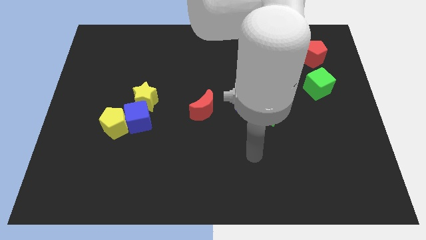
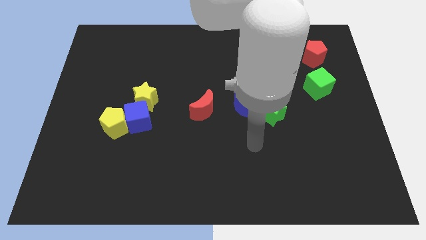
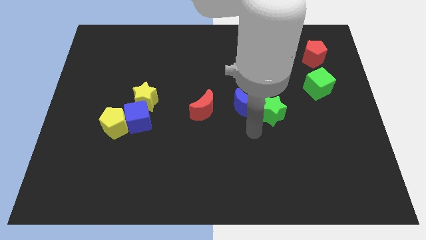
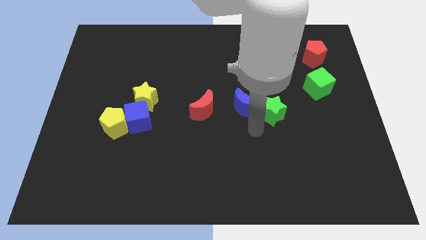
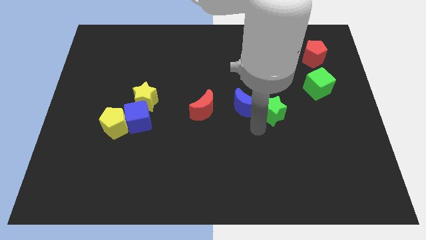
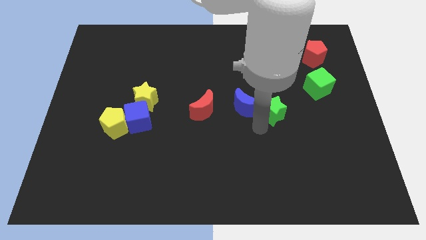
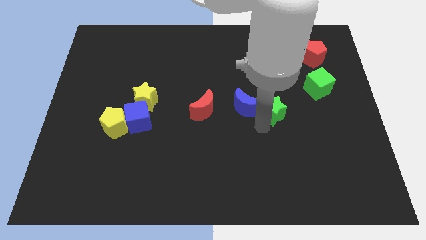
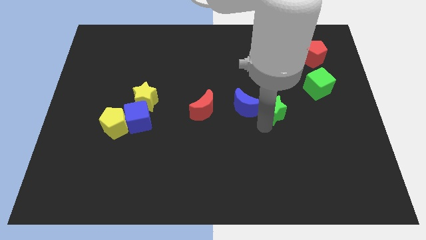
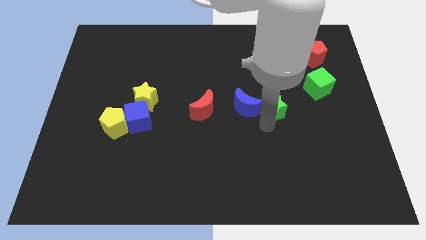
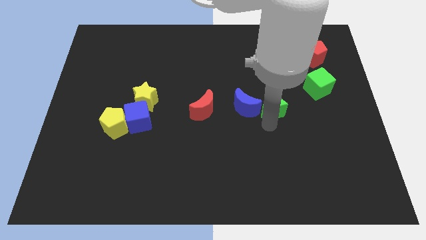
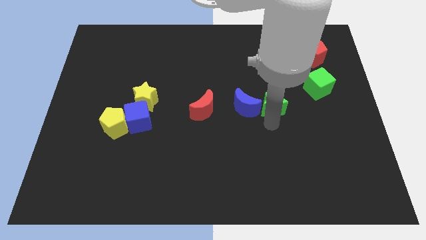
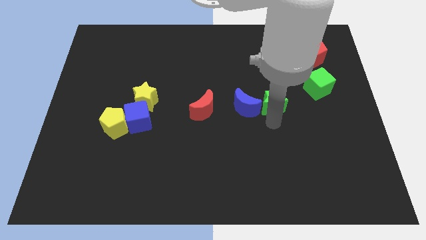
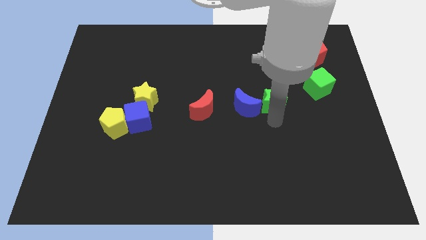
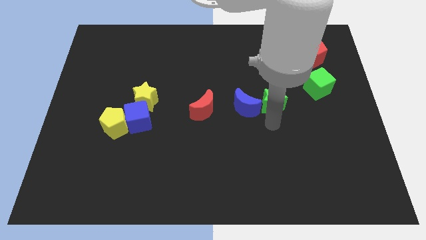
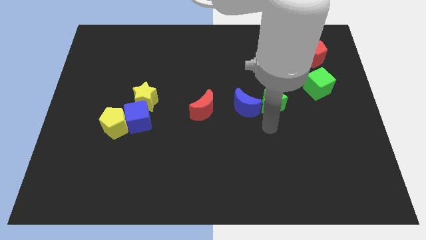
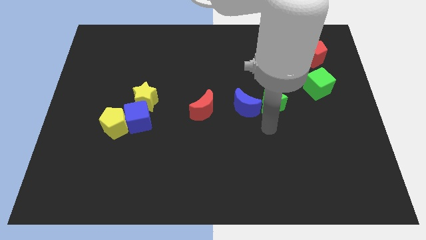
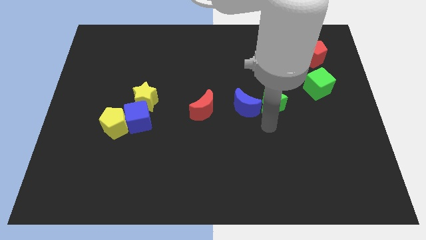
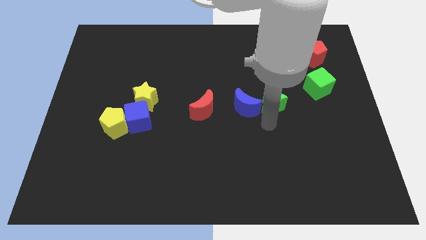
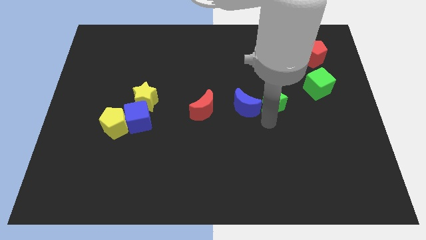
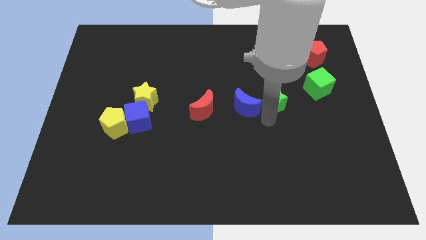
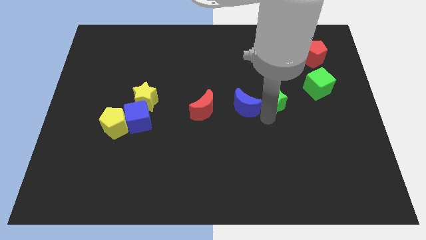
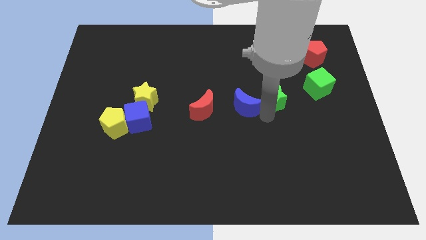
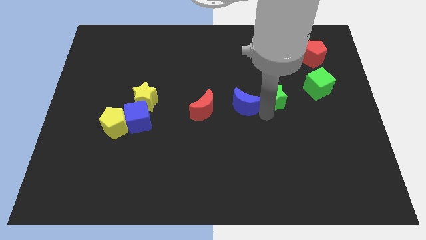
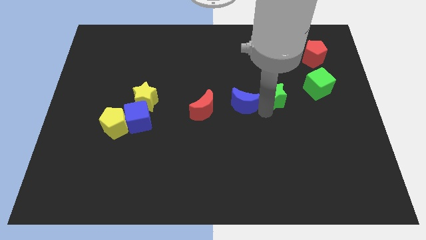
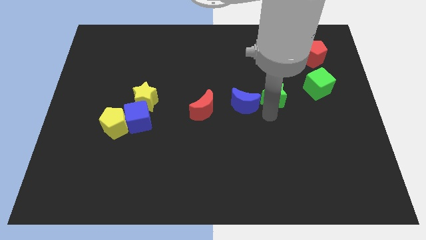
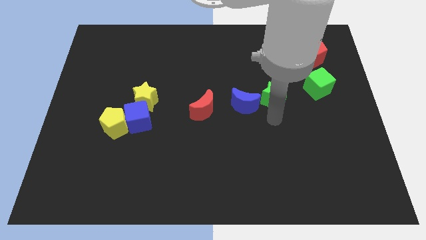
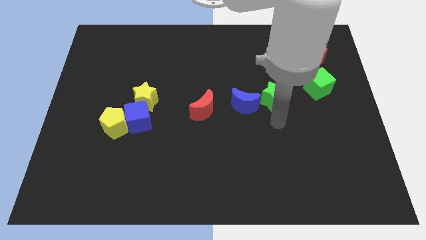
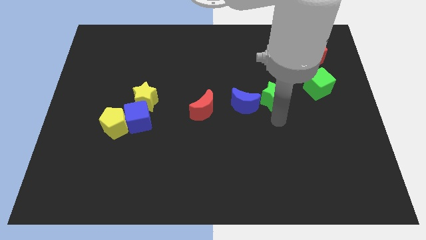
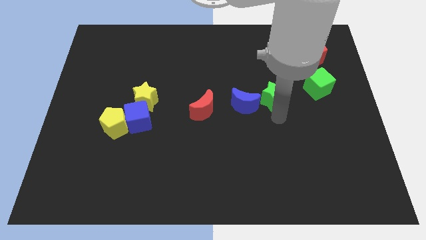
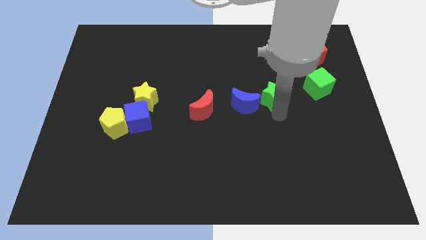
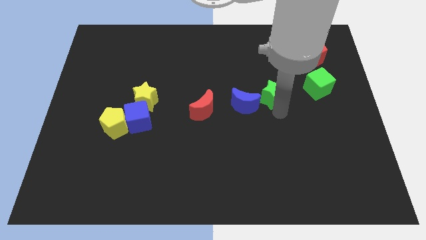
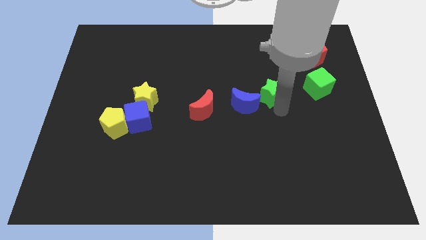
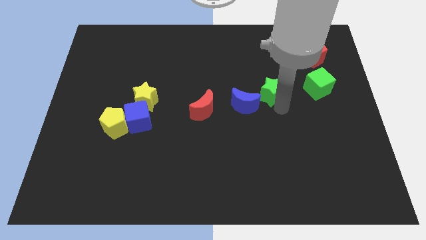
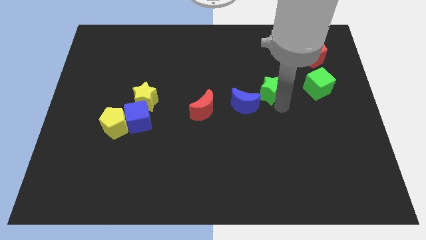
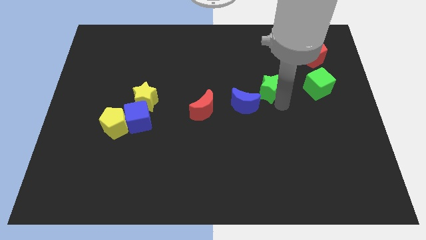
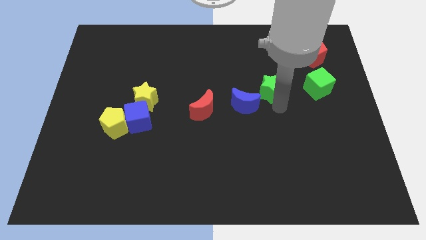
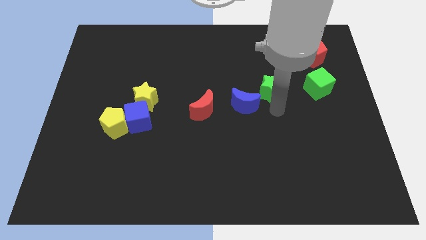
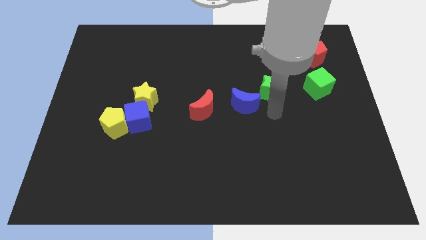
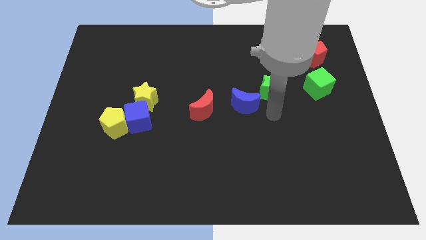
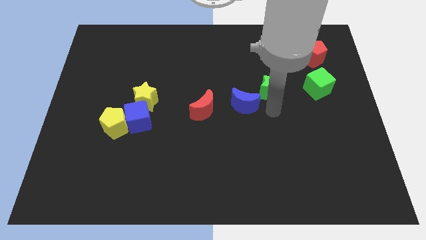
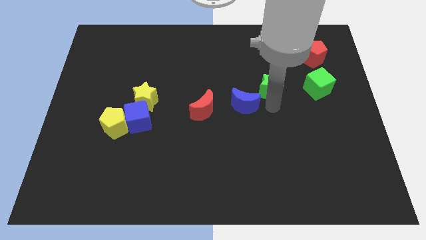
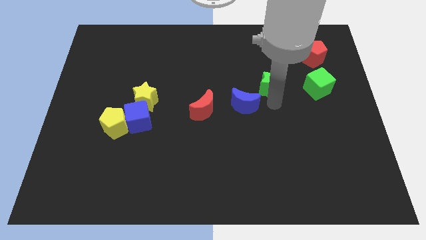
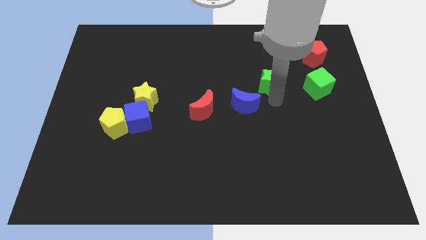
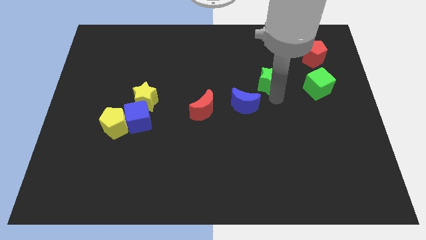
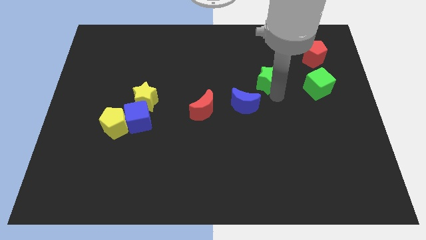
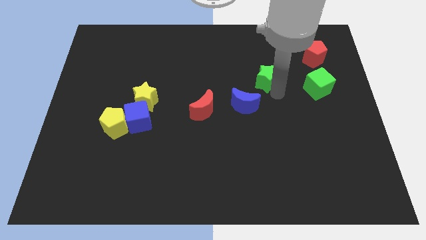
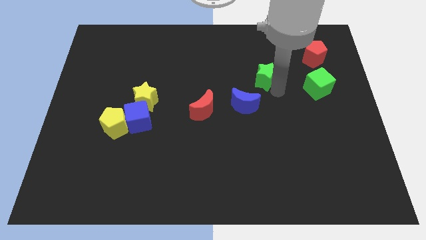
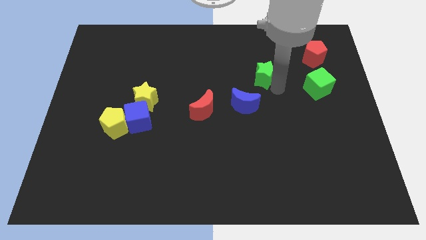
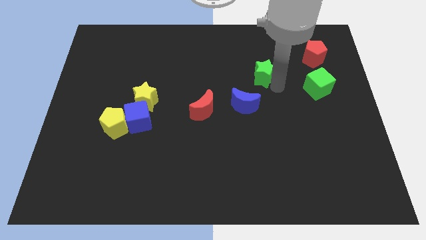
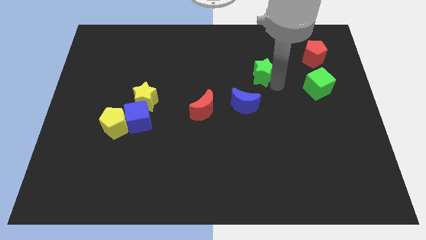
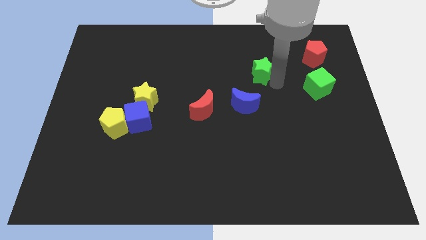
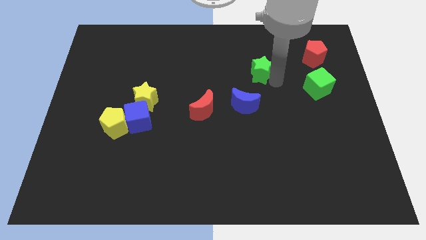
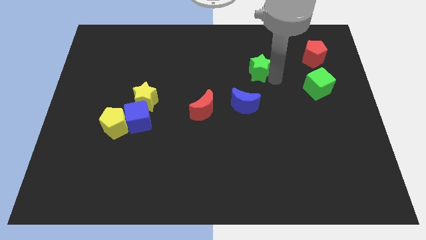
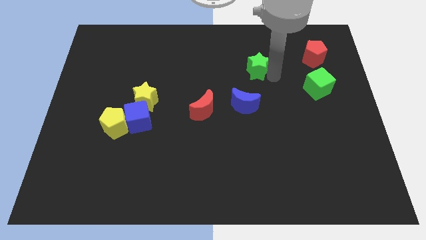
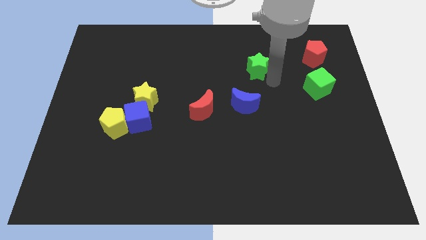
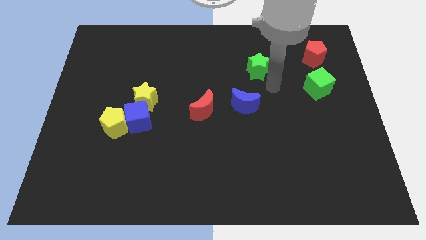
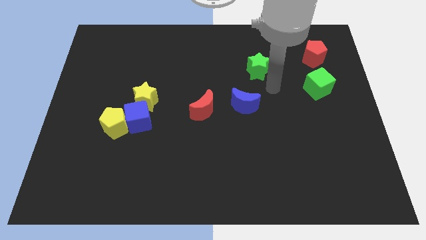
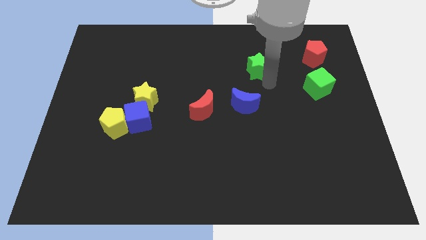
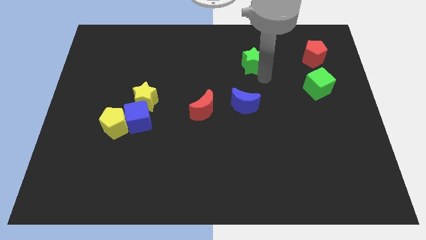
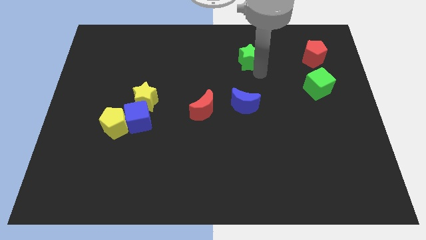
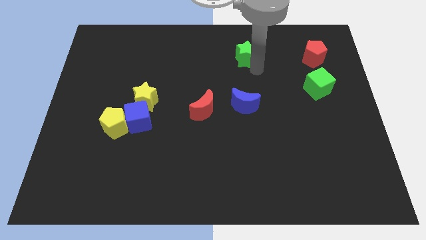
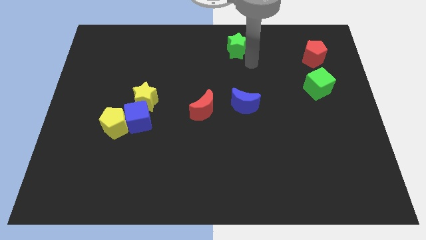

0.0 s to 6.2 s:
move the green star to the towards your base

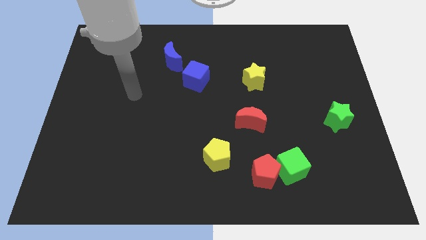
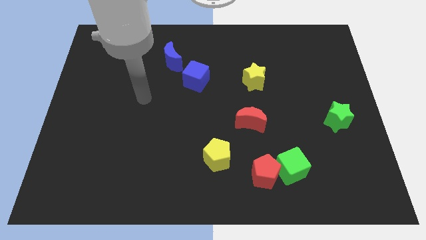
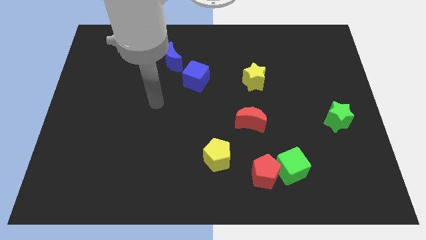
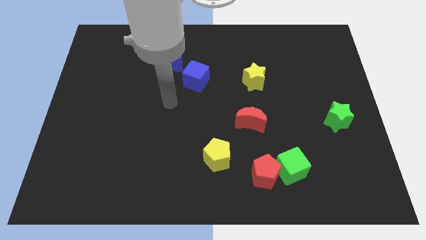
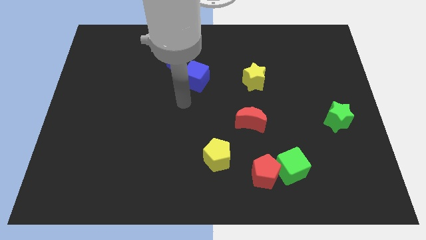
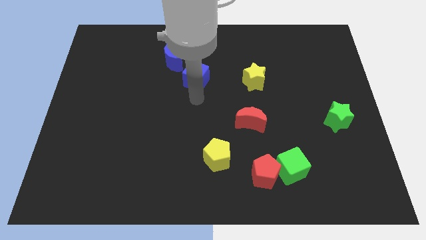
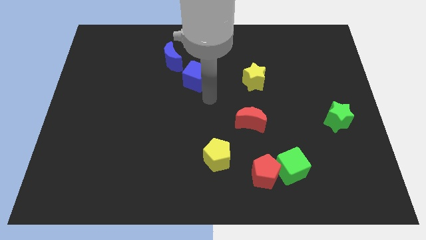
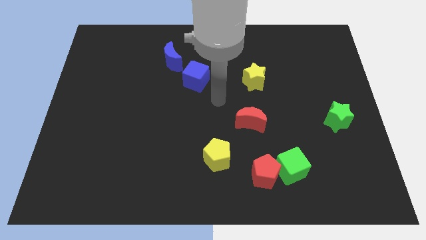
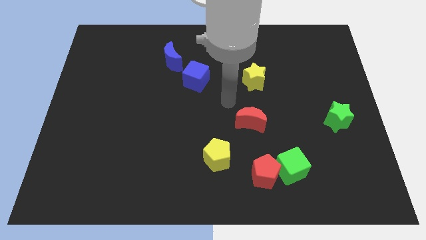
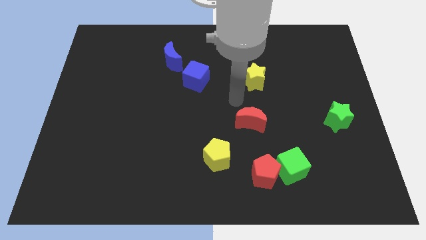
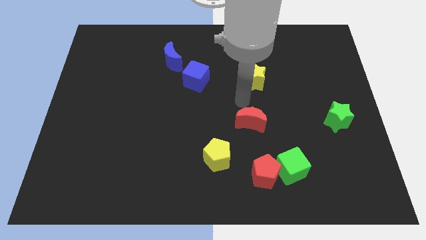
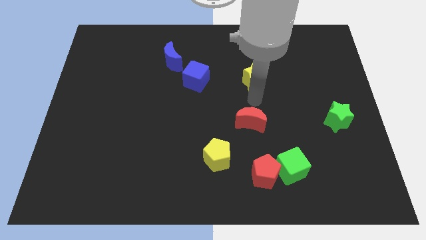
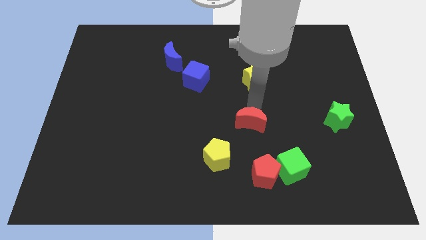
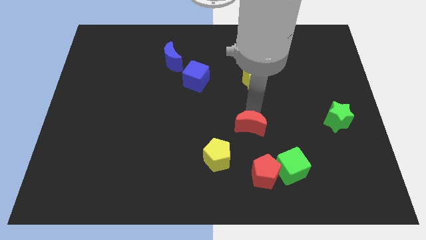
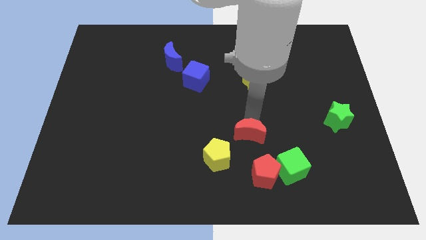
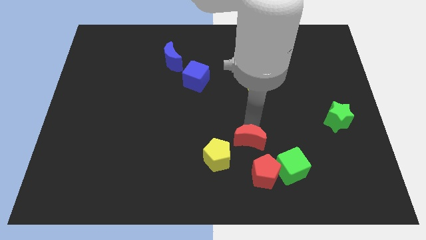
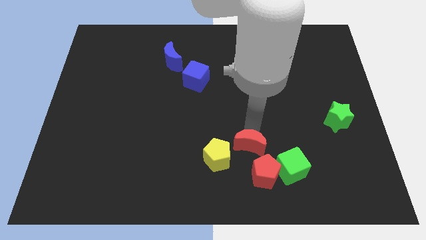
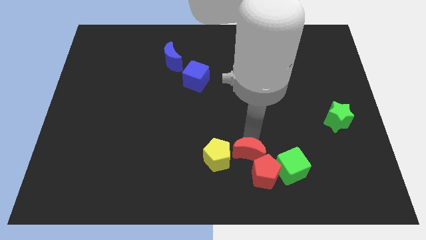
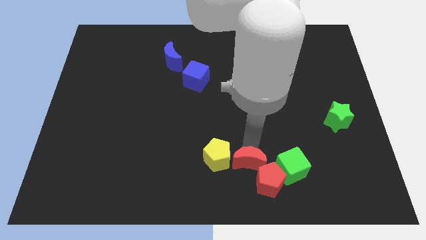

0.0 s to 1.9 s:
push the red moon to the bottom side
